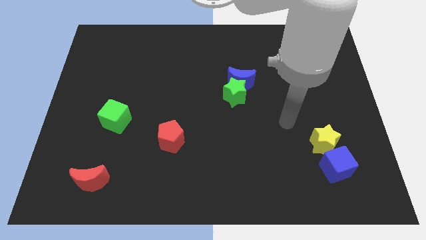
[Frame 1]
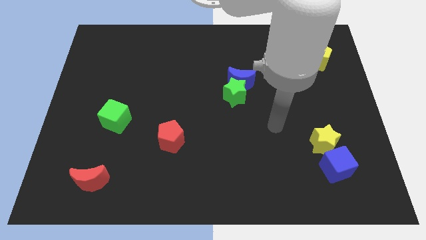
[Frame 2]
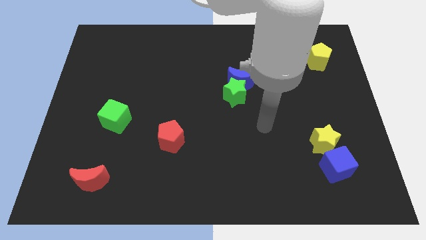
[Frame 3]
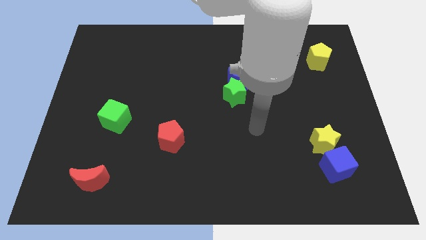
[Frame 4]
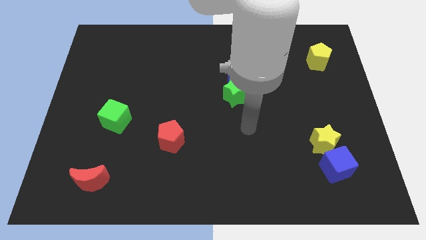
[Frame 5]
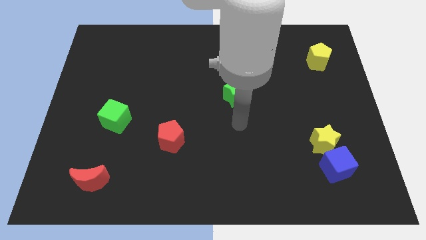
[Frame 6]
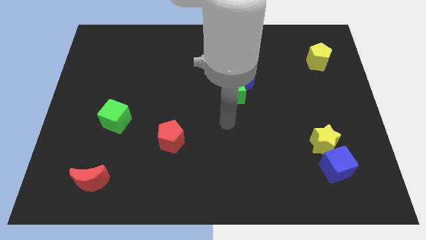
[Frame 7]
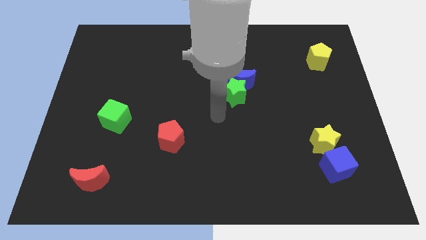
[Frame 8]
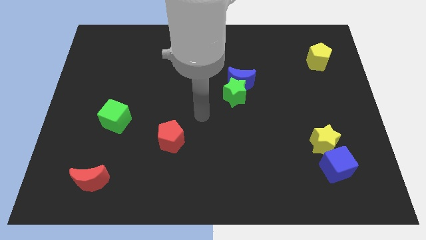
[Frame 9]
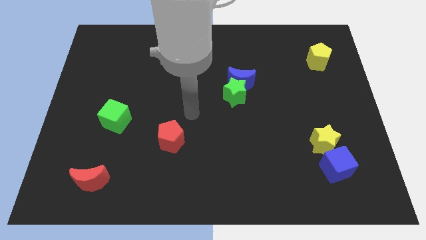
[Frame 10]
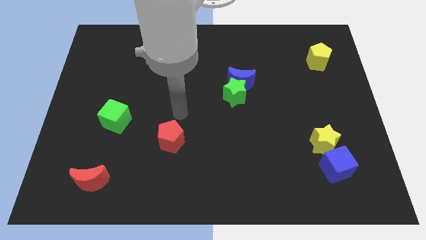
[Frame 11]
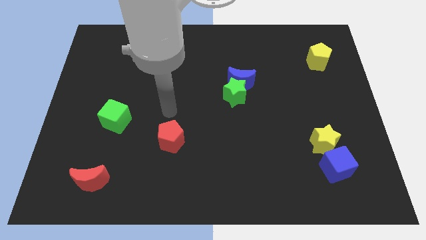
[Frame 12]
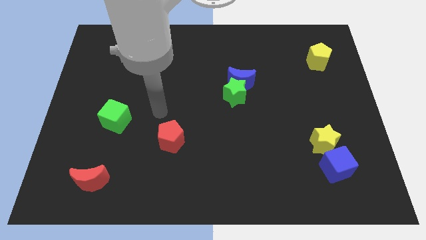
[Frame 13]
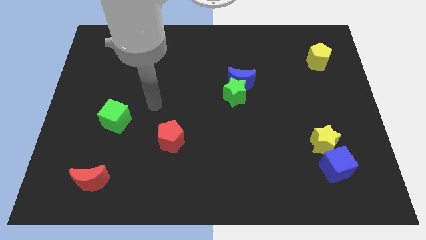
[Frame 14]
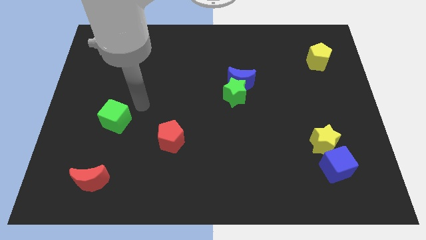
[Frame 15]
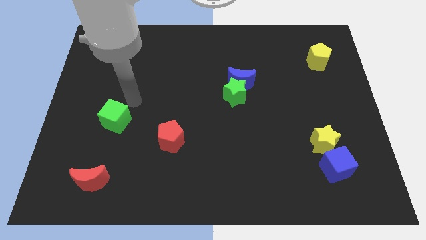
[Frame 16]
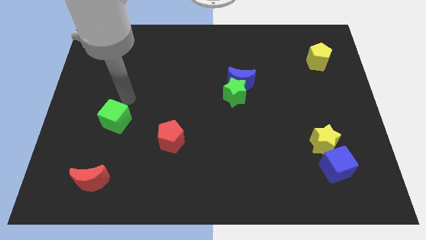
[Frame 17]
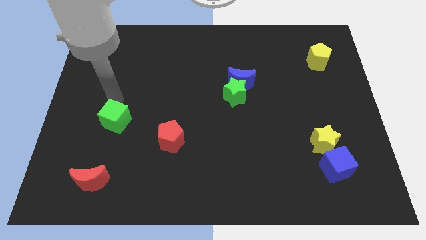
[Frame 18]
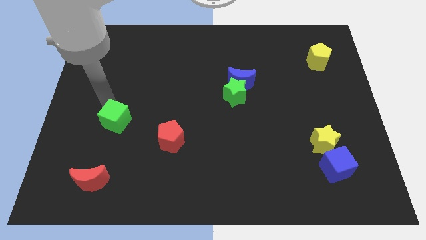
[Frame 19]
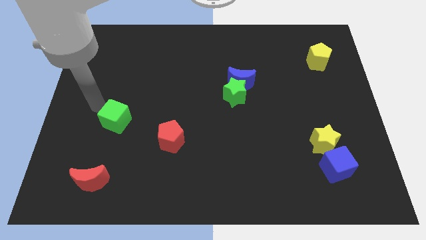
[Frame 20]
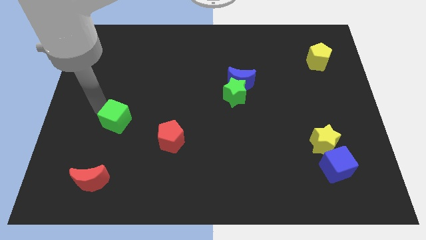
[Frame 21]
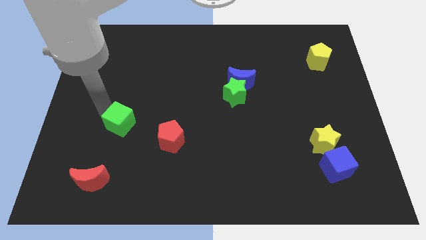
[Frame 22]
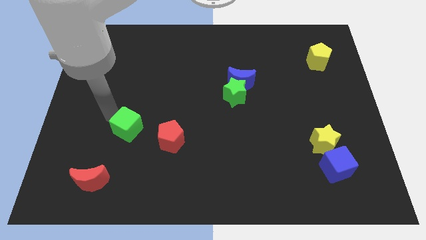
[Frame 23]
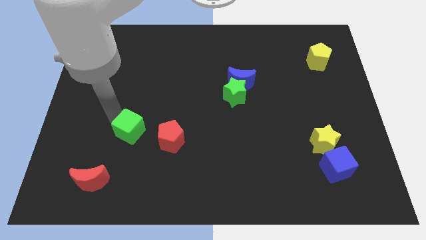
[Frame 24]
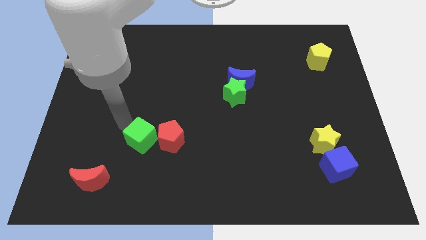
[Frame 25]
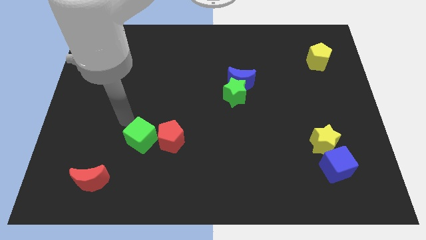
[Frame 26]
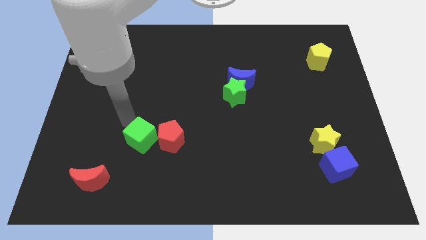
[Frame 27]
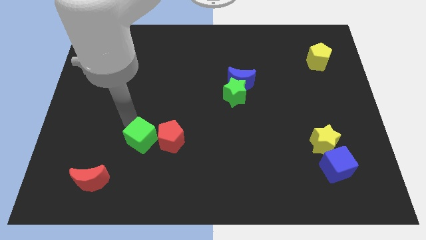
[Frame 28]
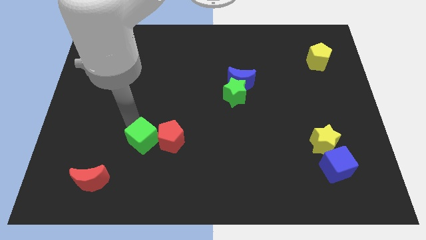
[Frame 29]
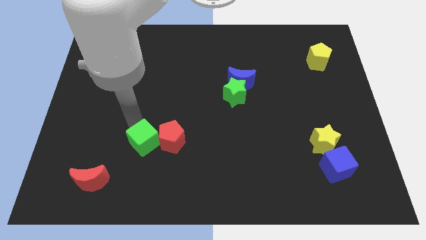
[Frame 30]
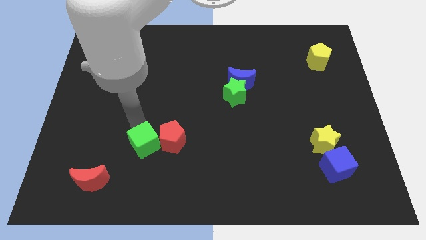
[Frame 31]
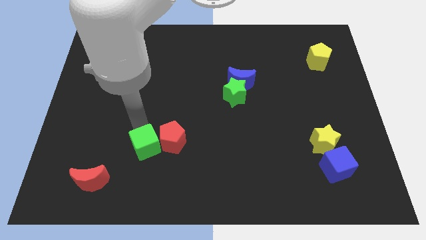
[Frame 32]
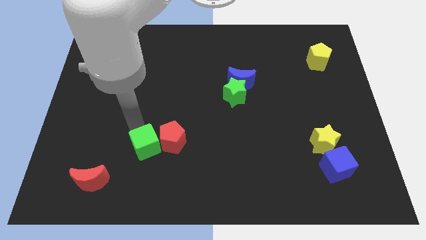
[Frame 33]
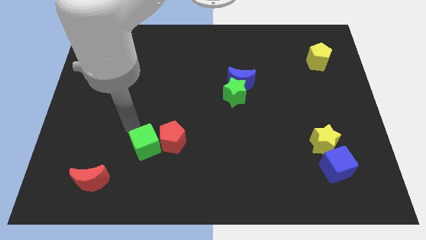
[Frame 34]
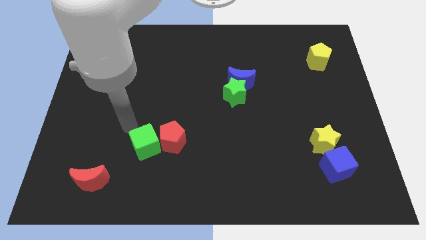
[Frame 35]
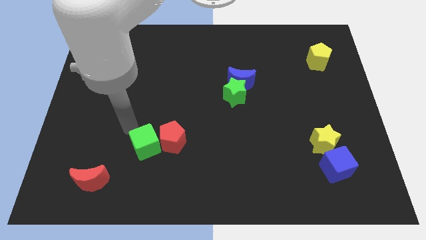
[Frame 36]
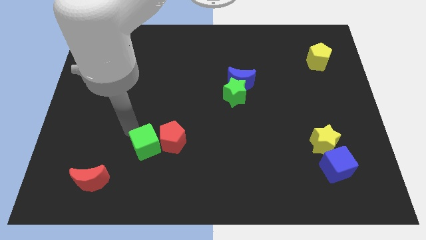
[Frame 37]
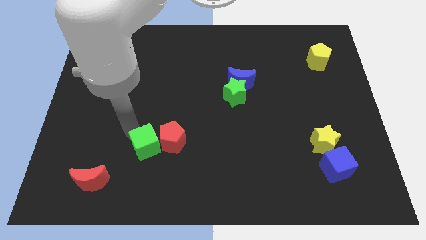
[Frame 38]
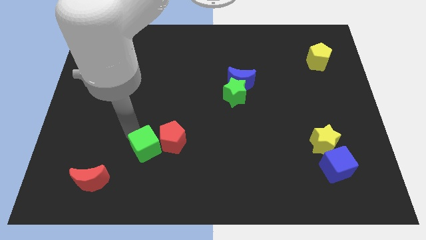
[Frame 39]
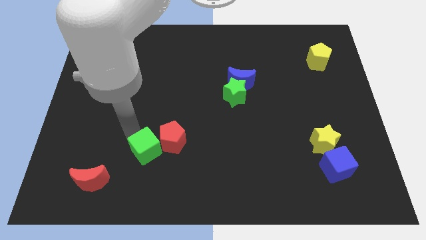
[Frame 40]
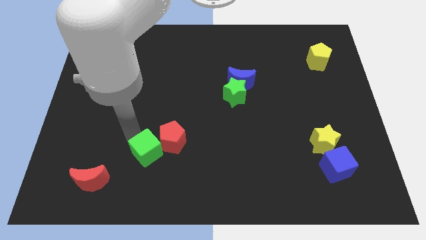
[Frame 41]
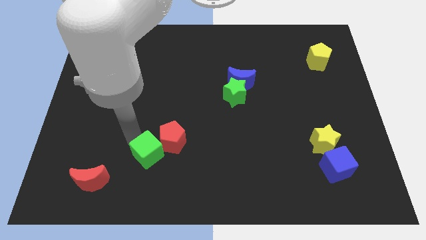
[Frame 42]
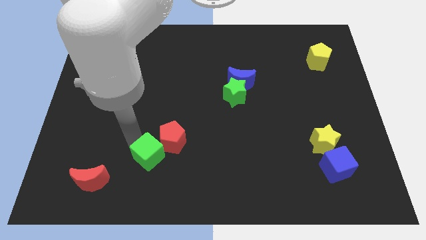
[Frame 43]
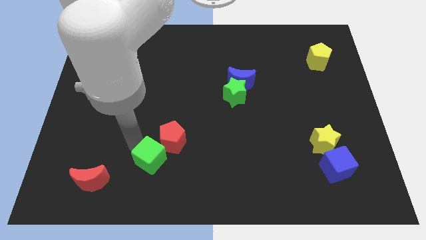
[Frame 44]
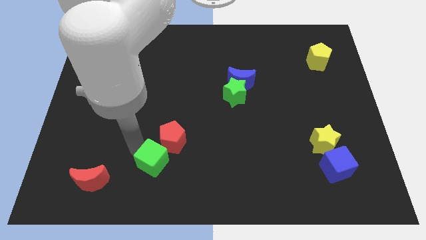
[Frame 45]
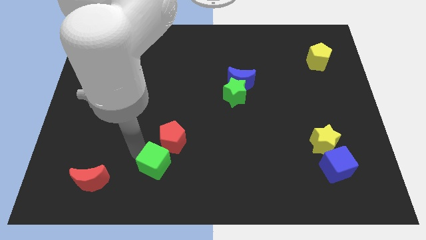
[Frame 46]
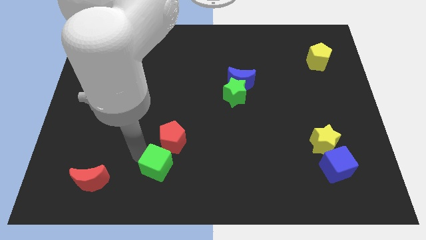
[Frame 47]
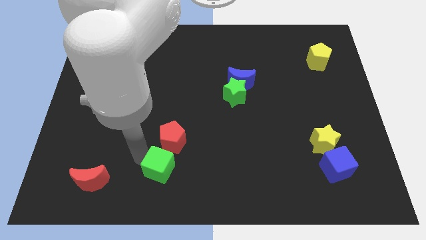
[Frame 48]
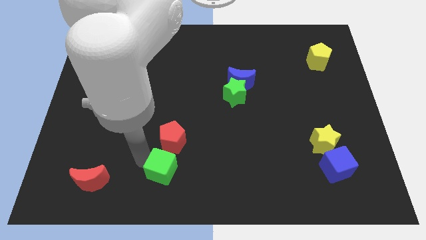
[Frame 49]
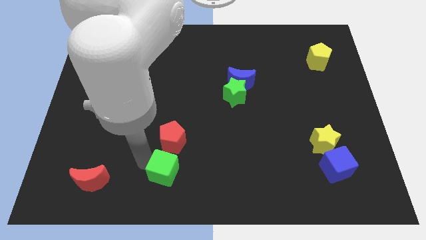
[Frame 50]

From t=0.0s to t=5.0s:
put the green cube to the bottom

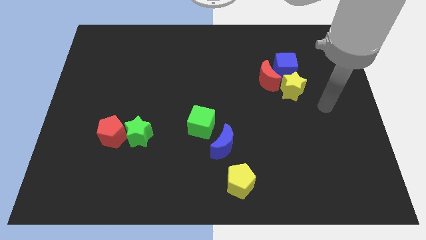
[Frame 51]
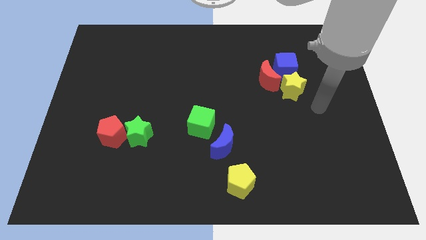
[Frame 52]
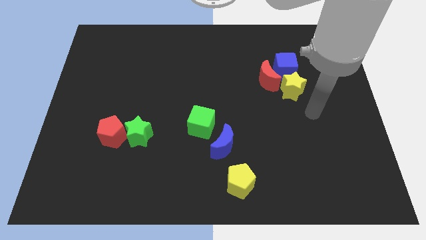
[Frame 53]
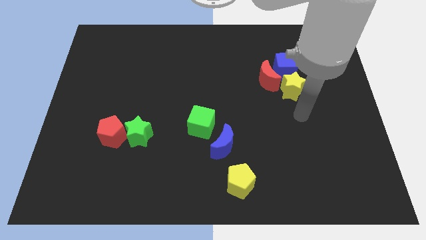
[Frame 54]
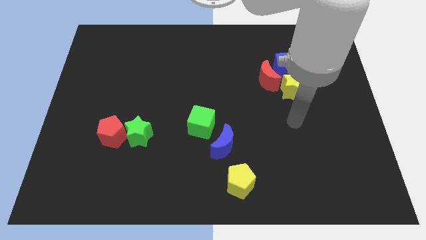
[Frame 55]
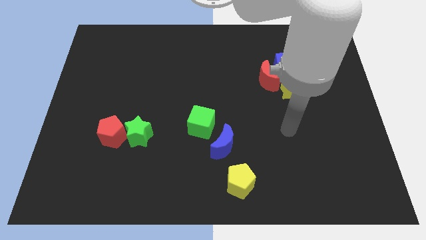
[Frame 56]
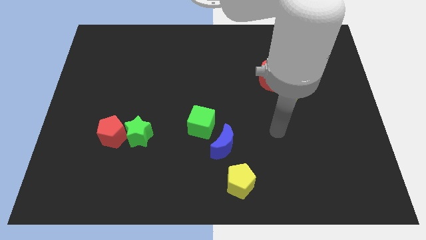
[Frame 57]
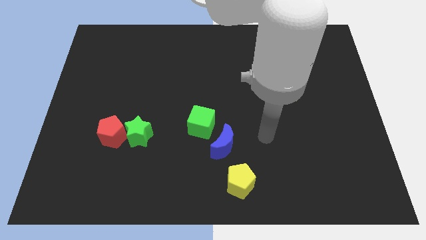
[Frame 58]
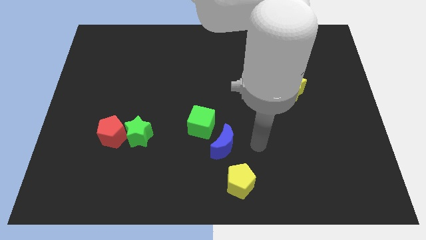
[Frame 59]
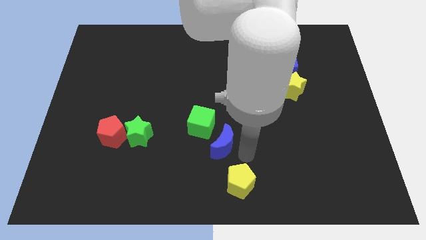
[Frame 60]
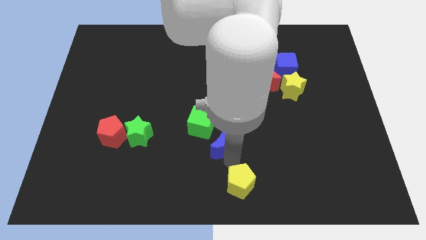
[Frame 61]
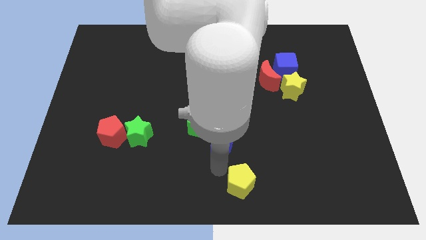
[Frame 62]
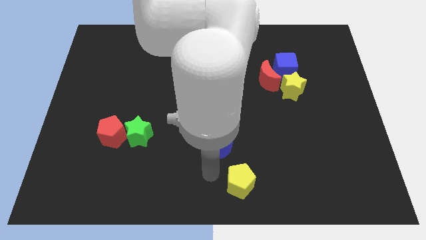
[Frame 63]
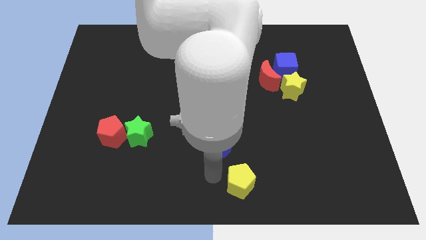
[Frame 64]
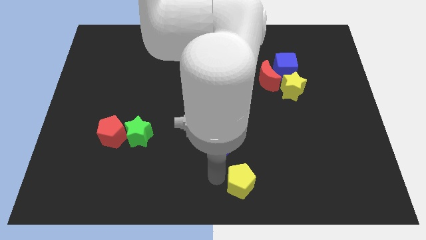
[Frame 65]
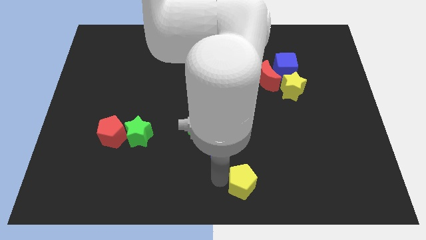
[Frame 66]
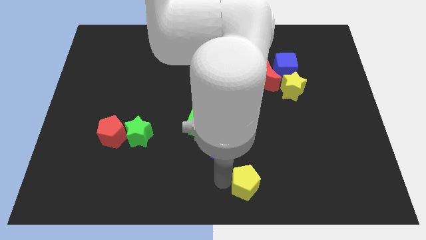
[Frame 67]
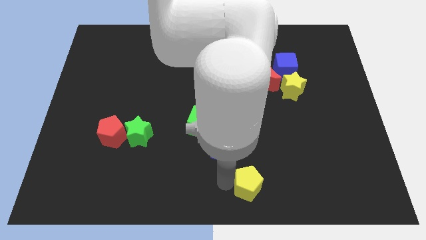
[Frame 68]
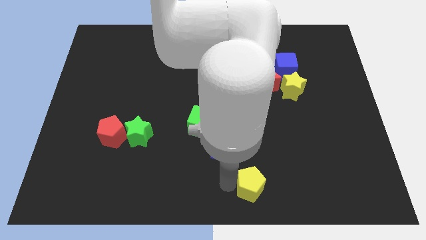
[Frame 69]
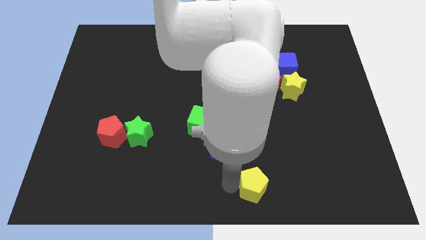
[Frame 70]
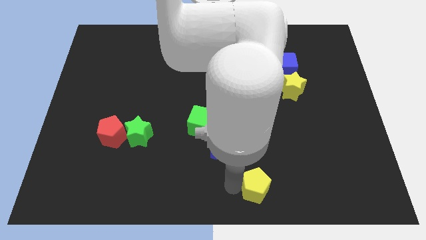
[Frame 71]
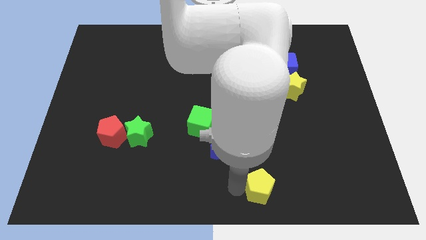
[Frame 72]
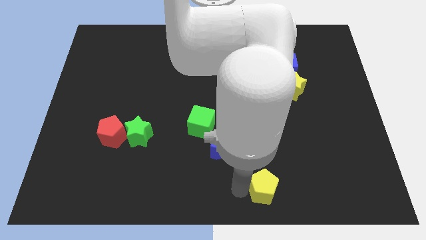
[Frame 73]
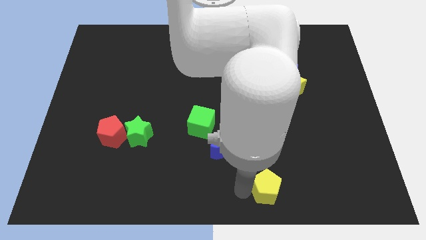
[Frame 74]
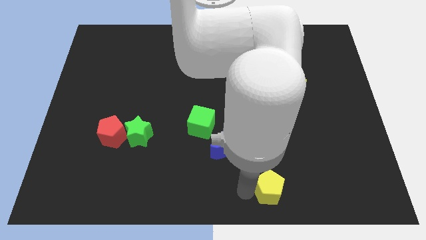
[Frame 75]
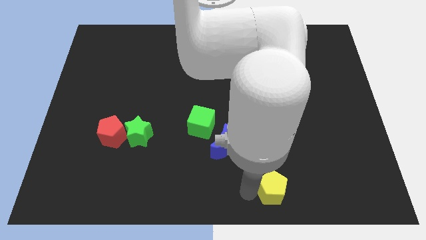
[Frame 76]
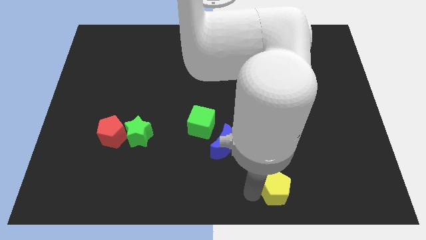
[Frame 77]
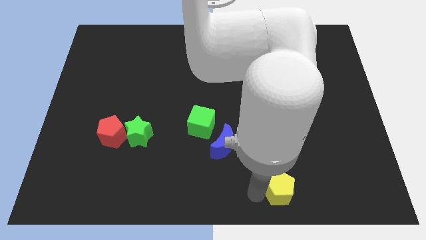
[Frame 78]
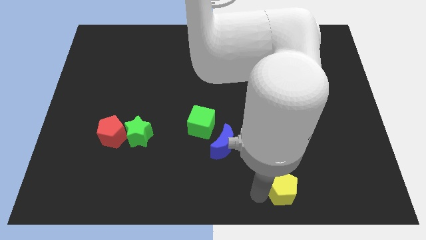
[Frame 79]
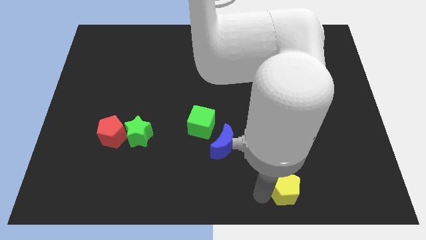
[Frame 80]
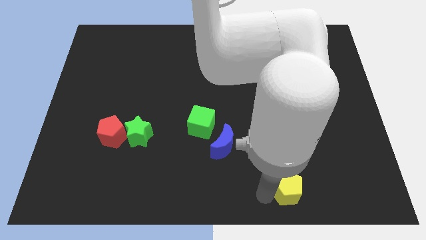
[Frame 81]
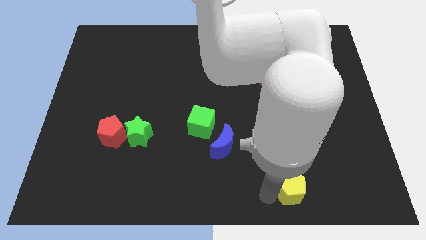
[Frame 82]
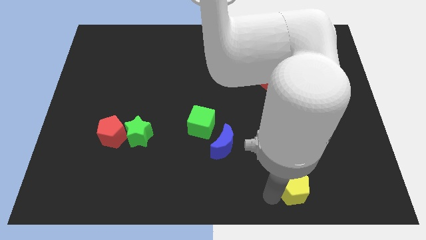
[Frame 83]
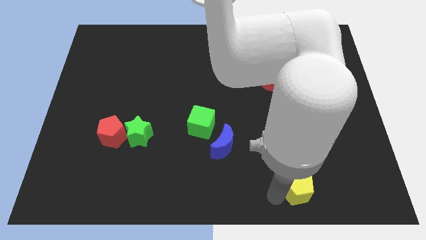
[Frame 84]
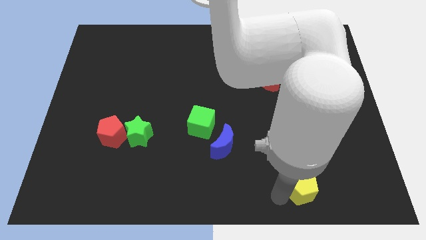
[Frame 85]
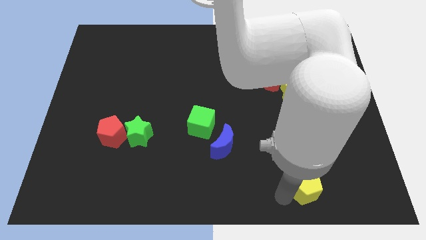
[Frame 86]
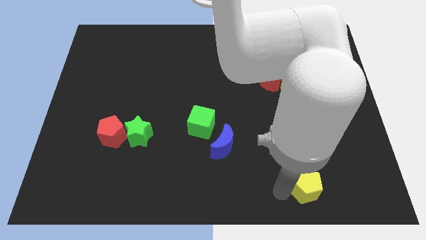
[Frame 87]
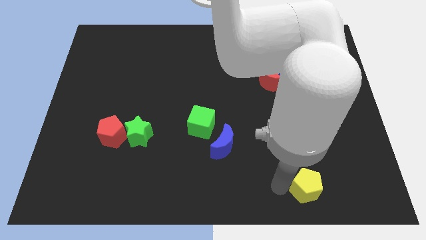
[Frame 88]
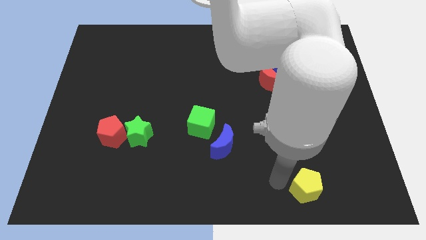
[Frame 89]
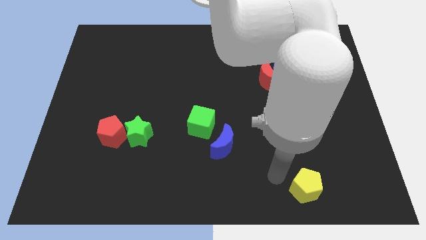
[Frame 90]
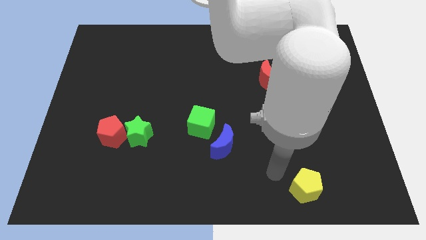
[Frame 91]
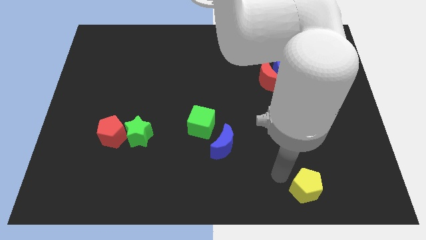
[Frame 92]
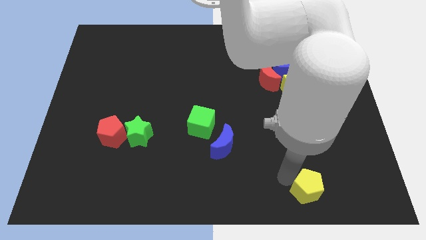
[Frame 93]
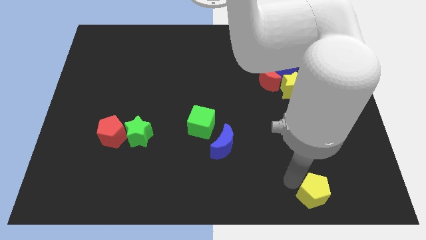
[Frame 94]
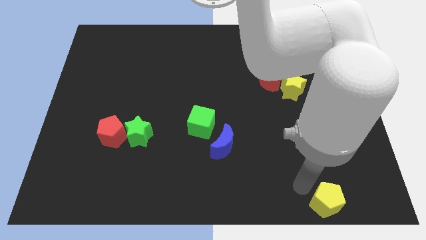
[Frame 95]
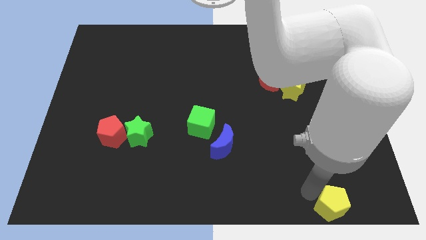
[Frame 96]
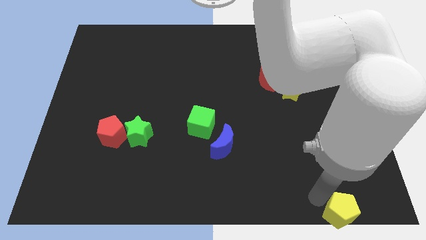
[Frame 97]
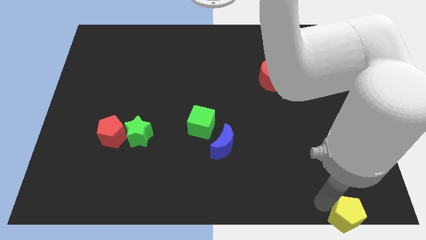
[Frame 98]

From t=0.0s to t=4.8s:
put the yellow pentagon to the bottom right corner
